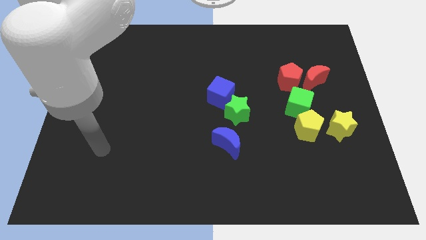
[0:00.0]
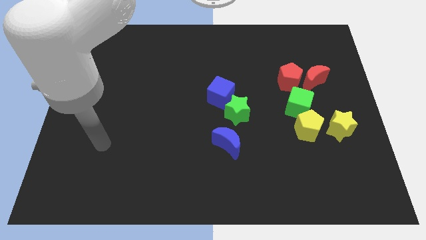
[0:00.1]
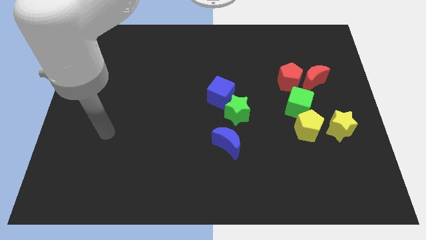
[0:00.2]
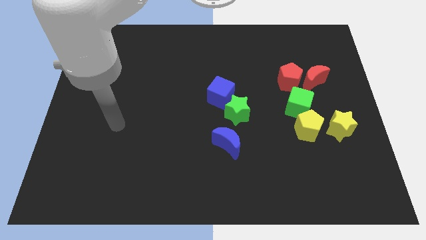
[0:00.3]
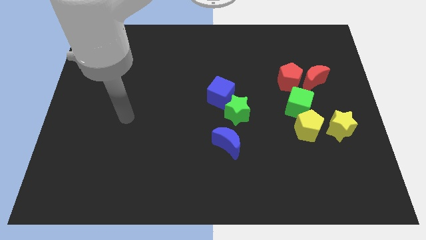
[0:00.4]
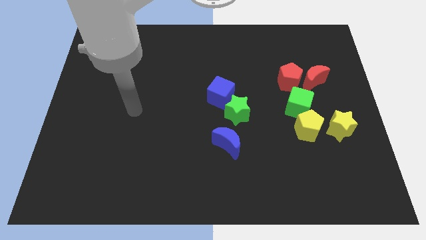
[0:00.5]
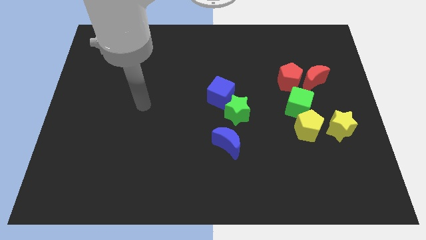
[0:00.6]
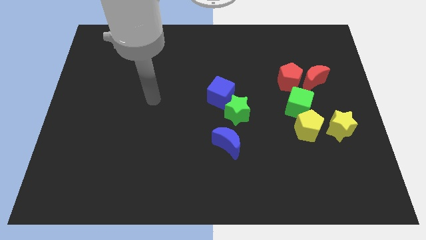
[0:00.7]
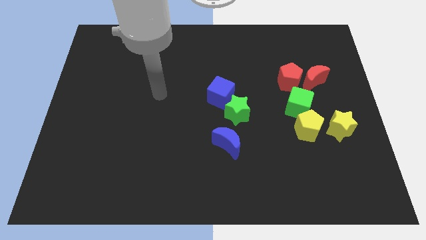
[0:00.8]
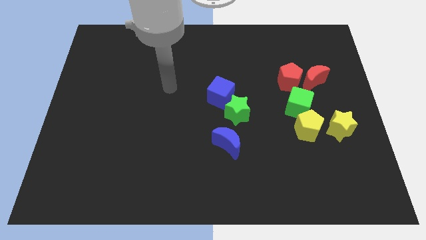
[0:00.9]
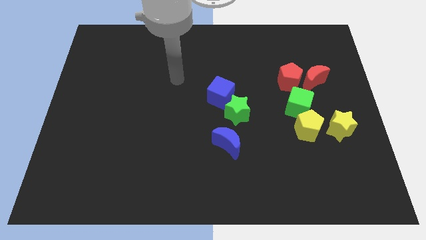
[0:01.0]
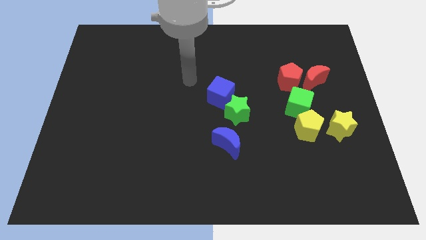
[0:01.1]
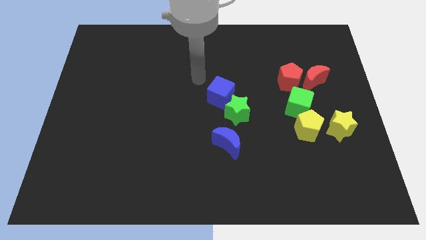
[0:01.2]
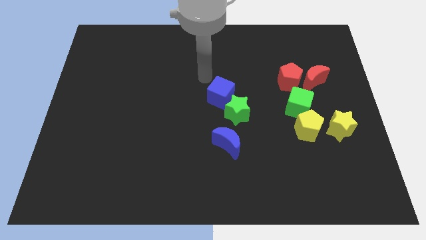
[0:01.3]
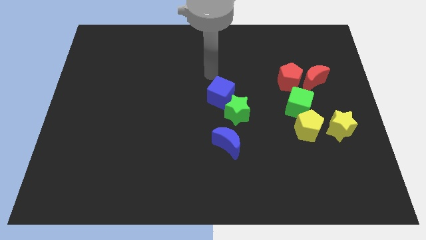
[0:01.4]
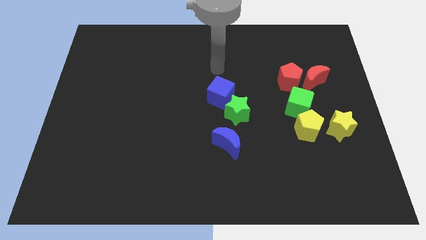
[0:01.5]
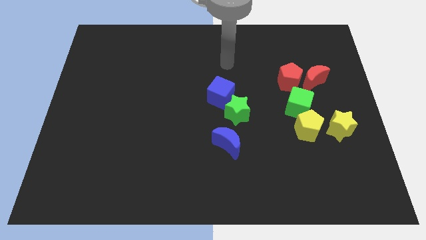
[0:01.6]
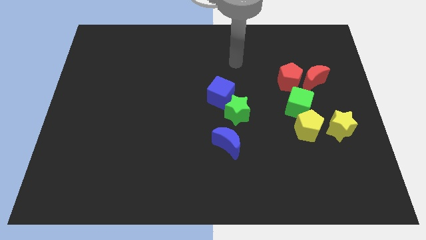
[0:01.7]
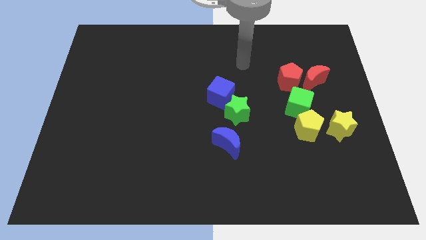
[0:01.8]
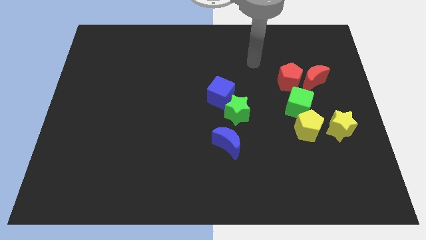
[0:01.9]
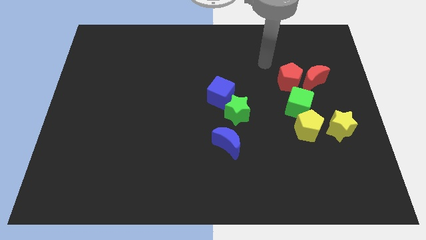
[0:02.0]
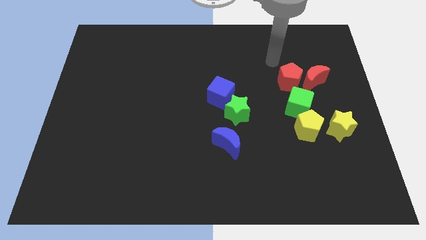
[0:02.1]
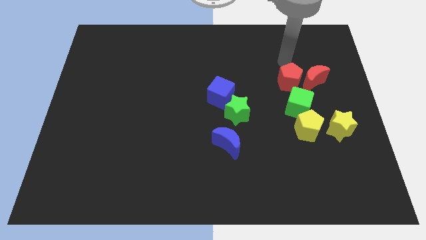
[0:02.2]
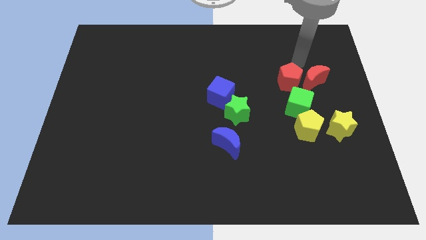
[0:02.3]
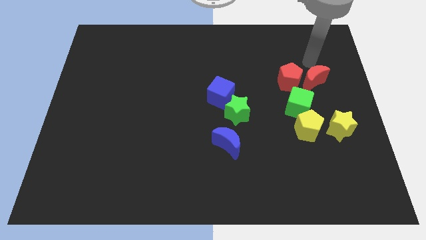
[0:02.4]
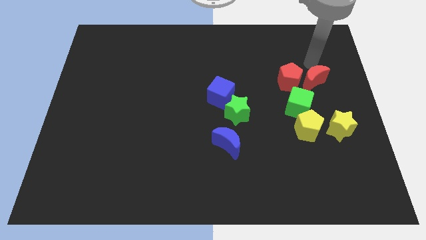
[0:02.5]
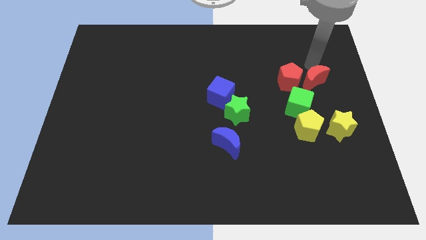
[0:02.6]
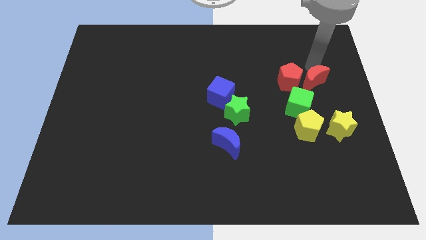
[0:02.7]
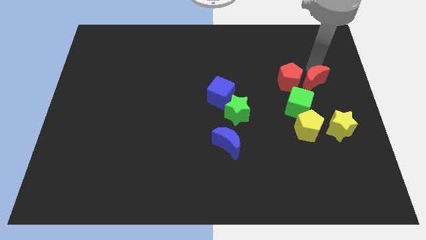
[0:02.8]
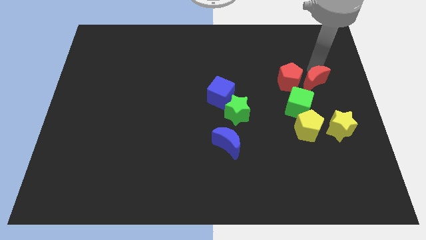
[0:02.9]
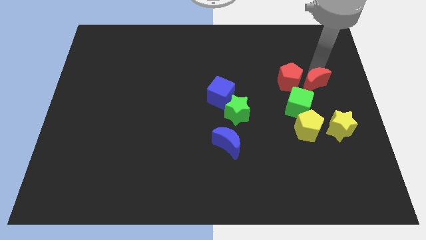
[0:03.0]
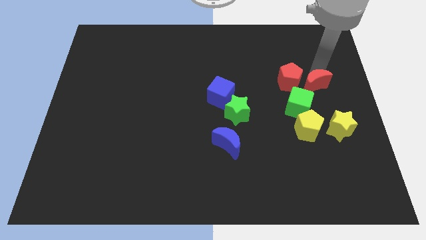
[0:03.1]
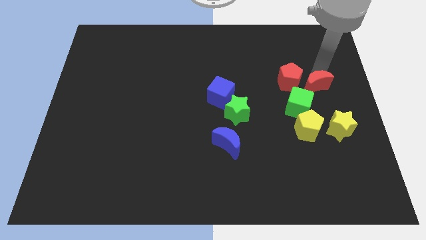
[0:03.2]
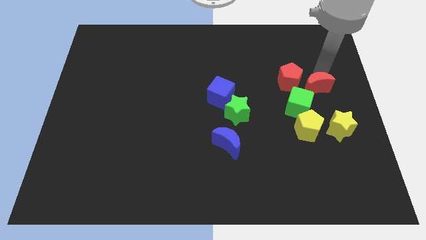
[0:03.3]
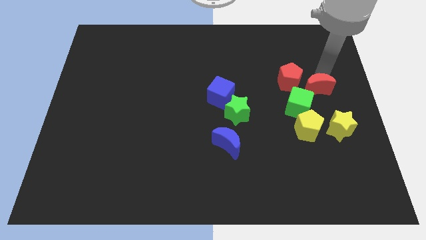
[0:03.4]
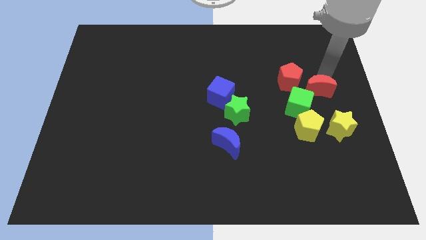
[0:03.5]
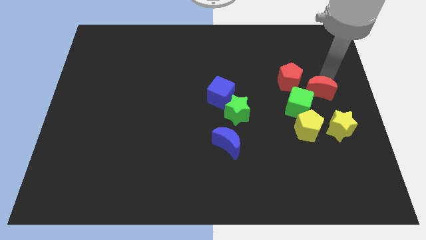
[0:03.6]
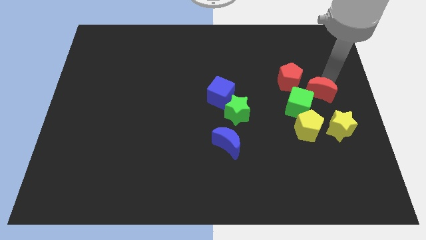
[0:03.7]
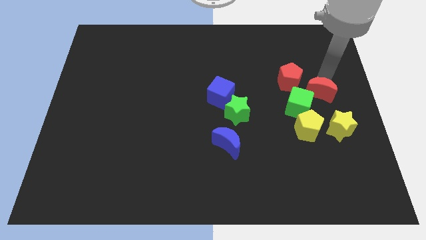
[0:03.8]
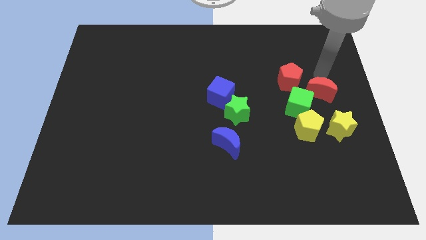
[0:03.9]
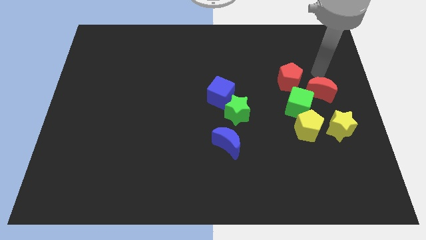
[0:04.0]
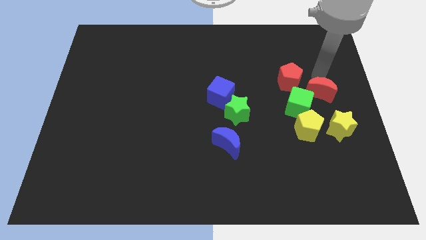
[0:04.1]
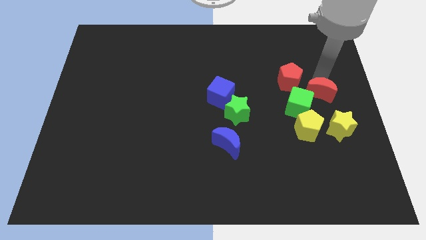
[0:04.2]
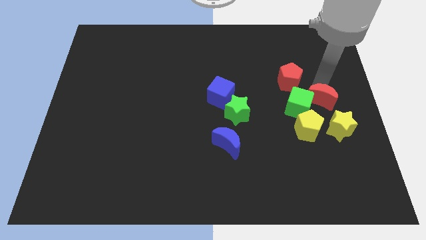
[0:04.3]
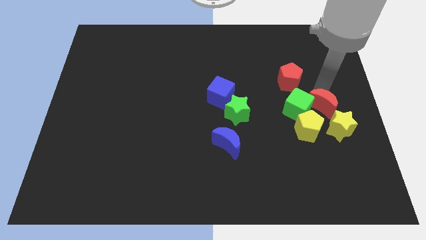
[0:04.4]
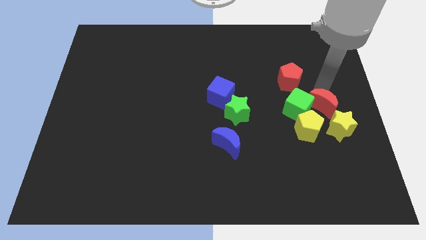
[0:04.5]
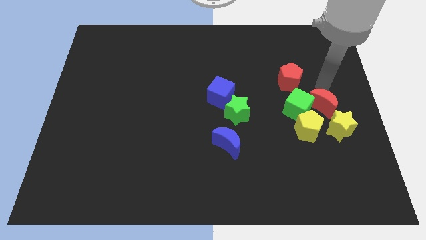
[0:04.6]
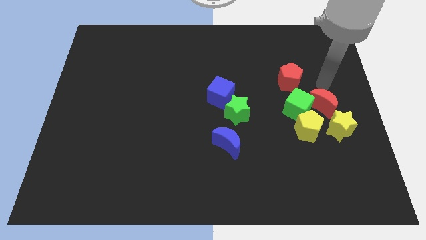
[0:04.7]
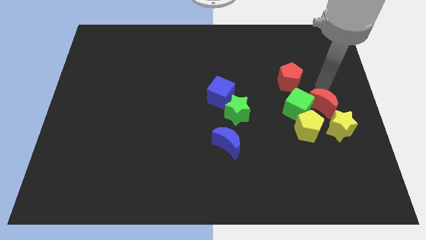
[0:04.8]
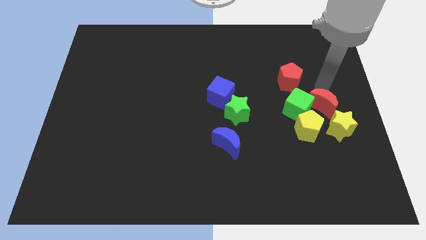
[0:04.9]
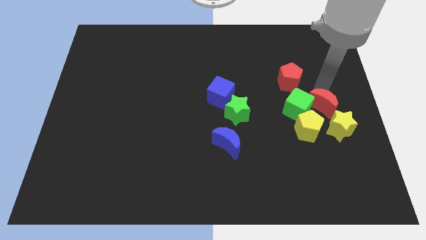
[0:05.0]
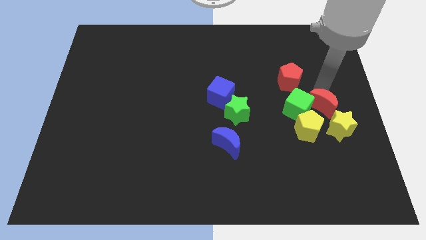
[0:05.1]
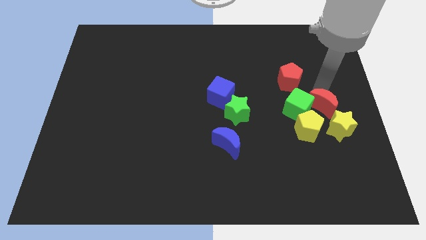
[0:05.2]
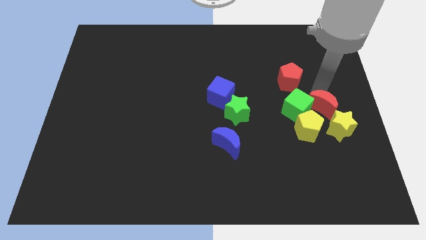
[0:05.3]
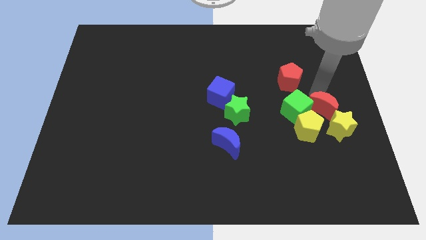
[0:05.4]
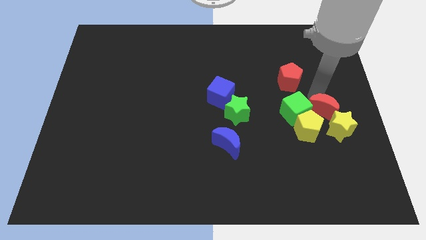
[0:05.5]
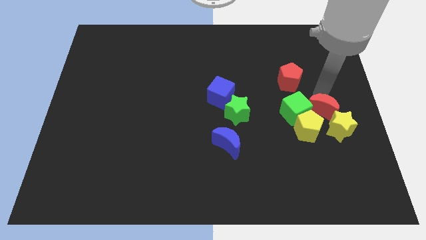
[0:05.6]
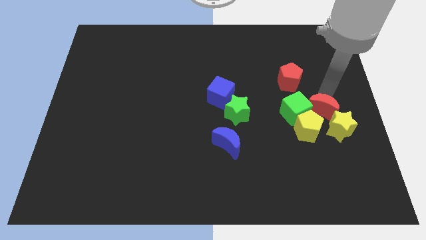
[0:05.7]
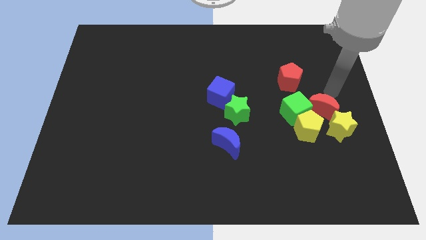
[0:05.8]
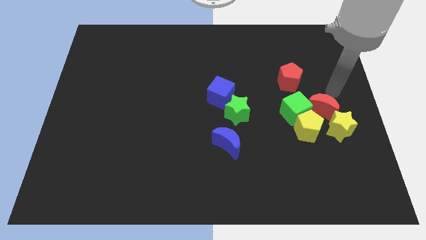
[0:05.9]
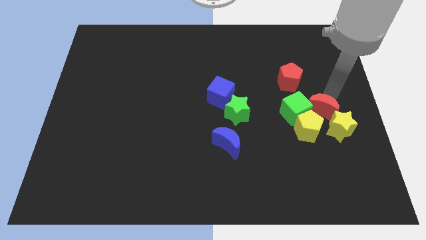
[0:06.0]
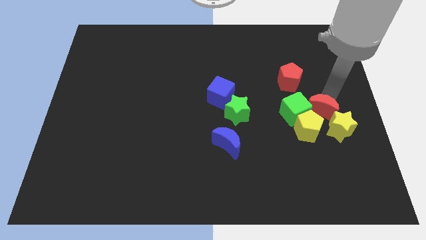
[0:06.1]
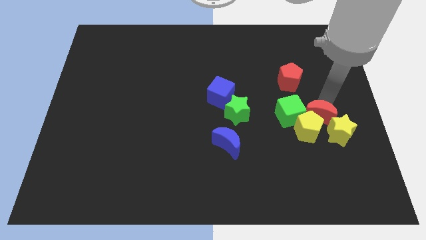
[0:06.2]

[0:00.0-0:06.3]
put the red moon close to the yellow pentagon
